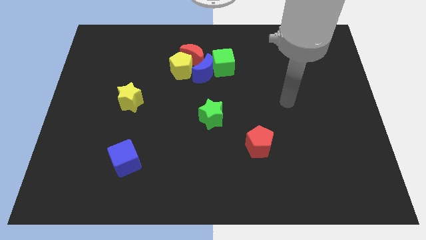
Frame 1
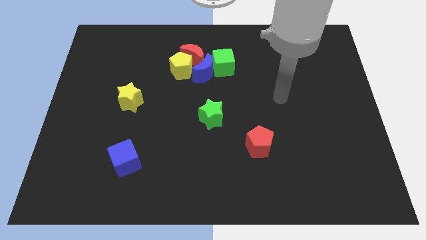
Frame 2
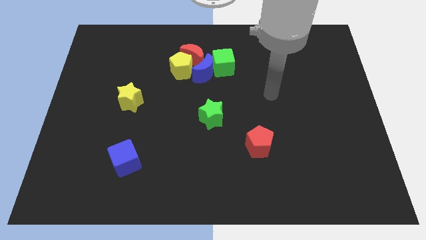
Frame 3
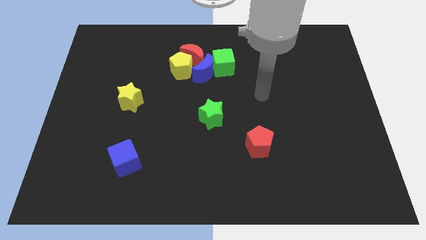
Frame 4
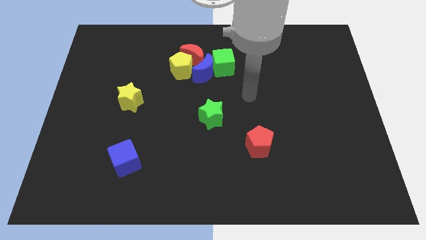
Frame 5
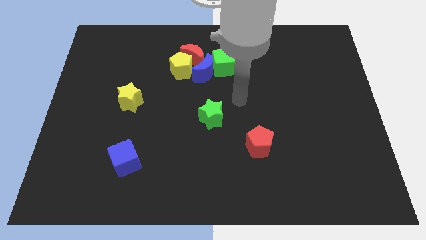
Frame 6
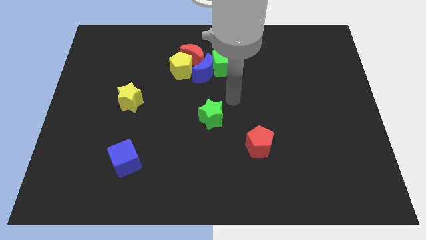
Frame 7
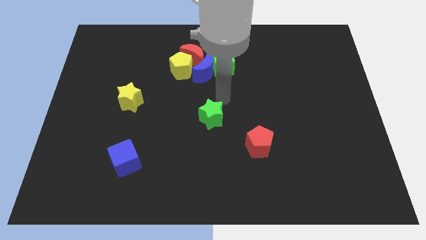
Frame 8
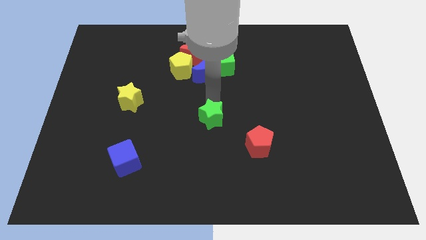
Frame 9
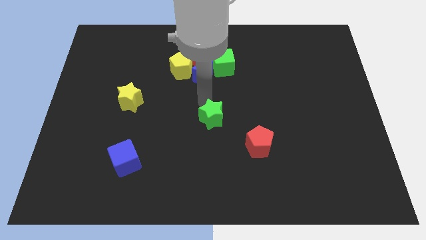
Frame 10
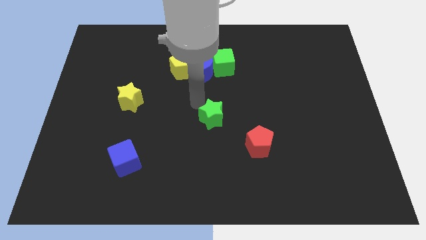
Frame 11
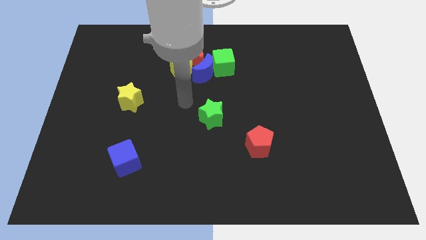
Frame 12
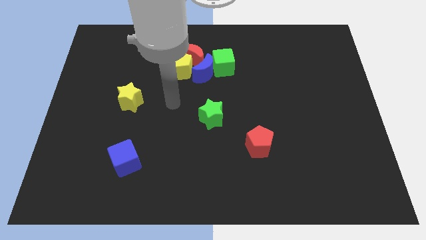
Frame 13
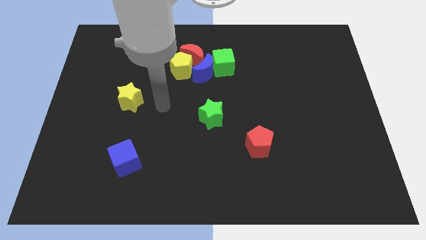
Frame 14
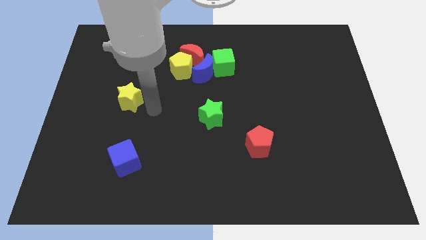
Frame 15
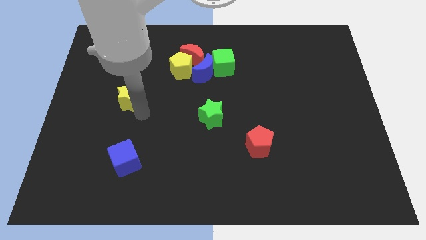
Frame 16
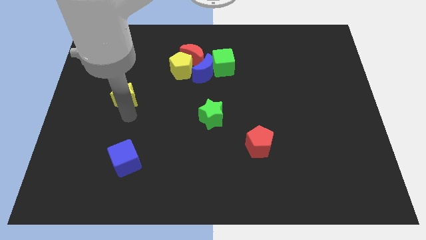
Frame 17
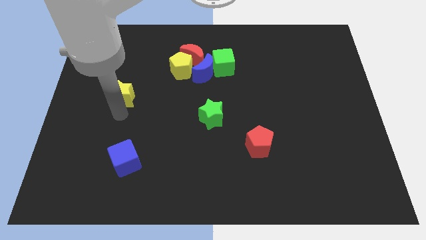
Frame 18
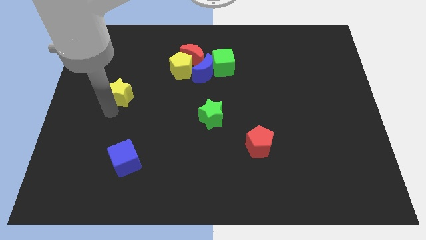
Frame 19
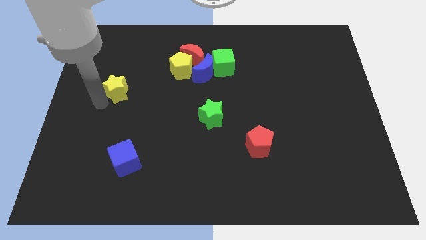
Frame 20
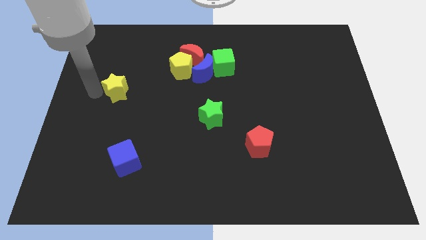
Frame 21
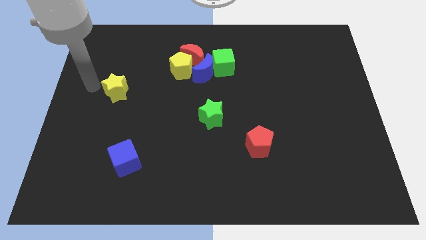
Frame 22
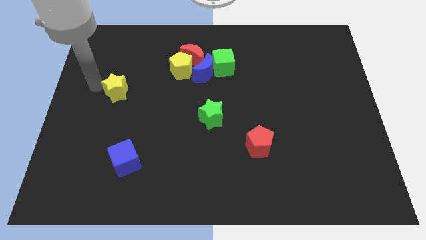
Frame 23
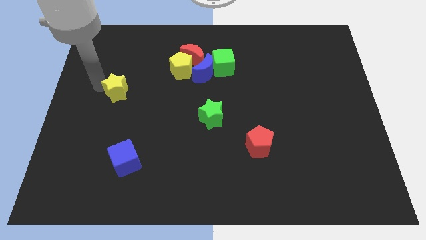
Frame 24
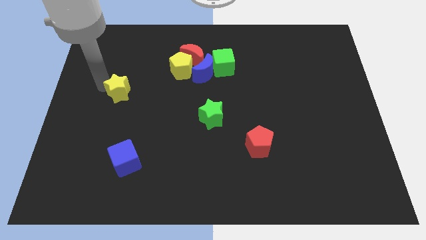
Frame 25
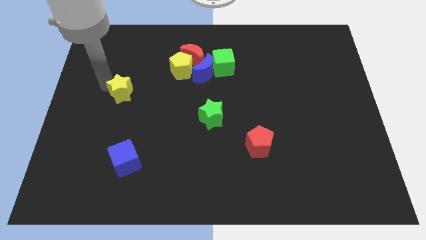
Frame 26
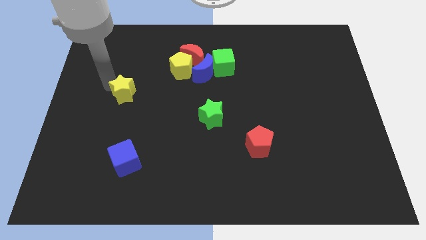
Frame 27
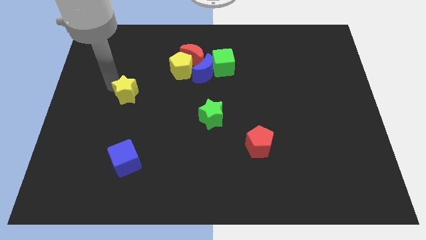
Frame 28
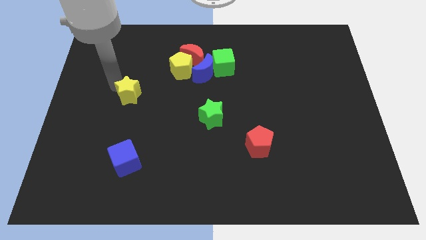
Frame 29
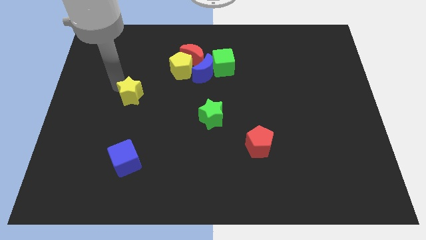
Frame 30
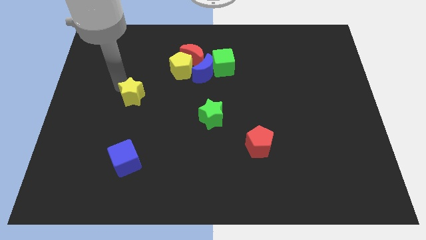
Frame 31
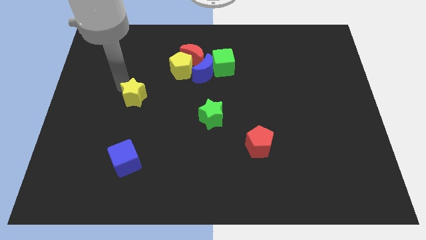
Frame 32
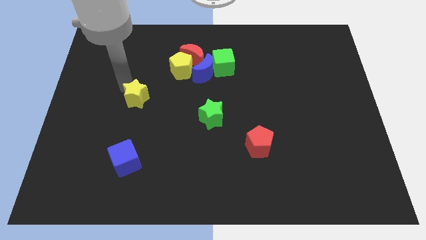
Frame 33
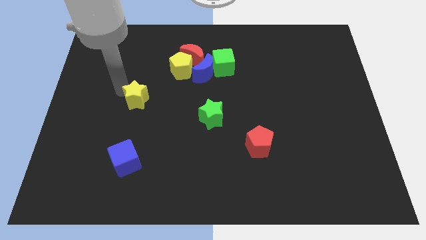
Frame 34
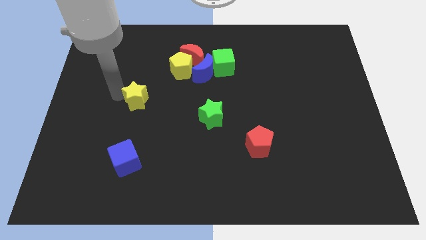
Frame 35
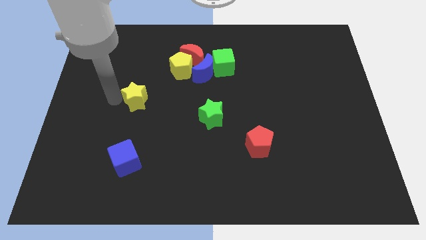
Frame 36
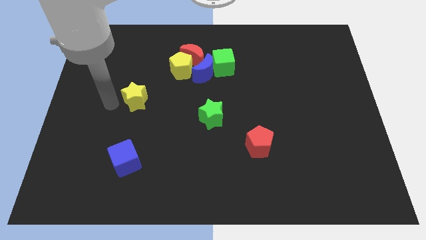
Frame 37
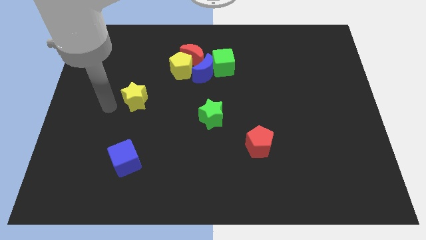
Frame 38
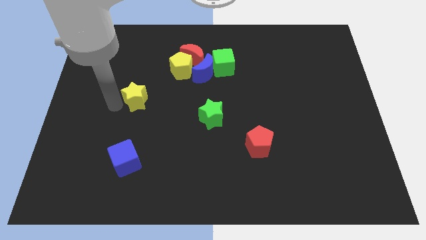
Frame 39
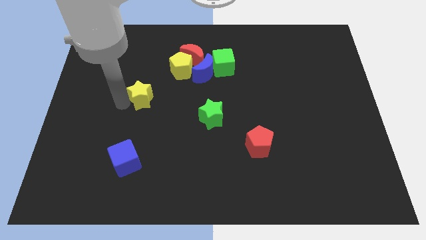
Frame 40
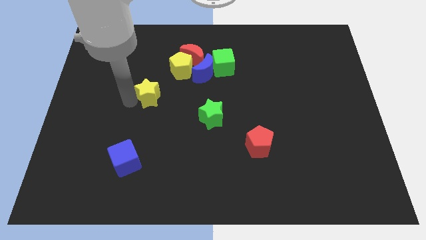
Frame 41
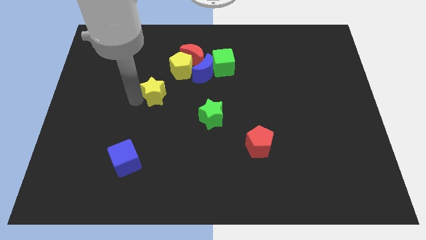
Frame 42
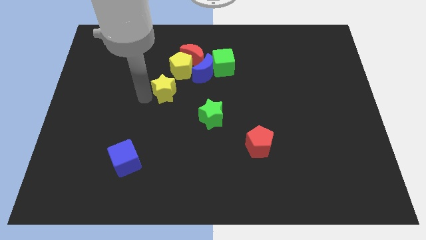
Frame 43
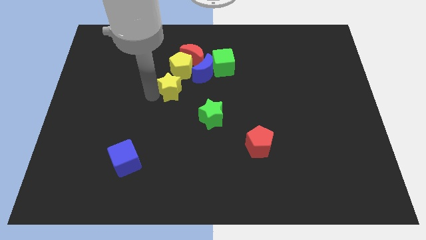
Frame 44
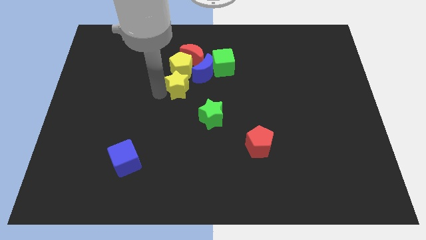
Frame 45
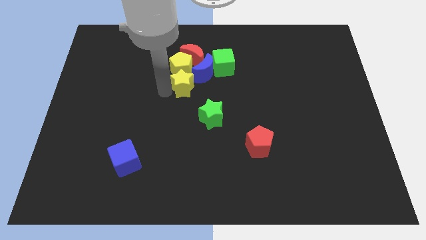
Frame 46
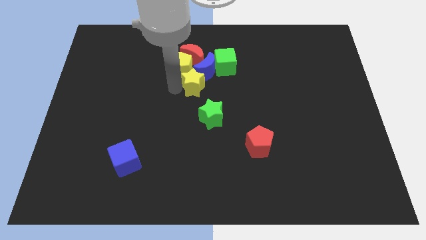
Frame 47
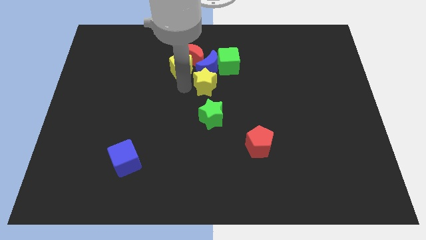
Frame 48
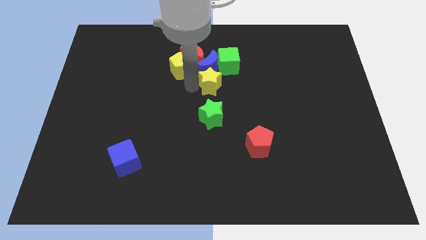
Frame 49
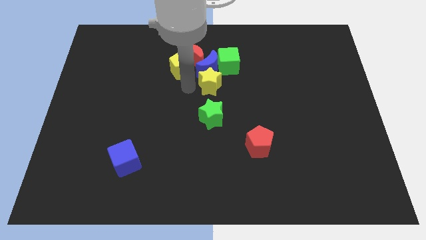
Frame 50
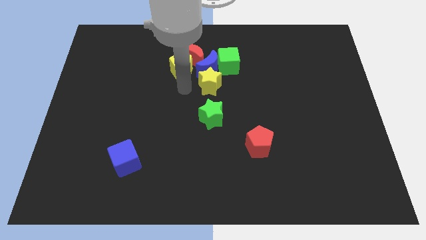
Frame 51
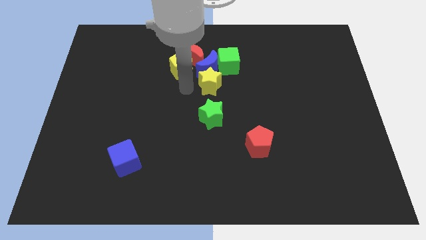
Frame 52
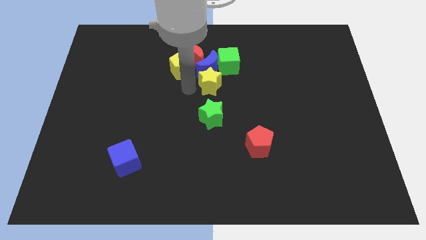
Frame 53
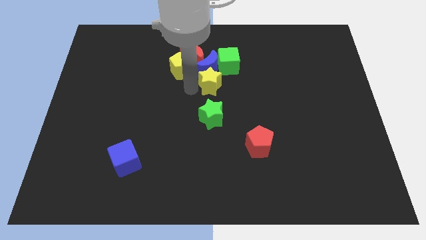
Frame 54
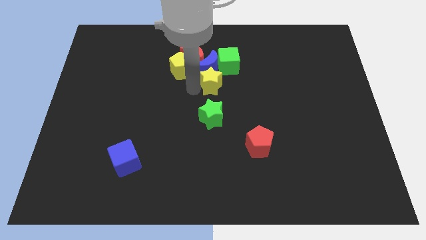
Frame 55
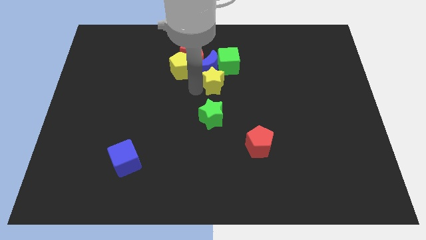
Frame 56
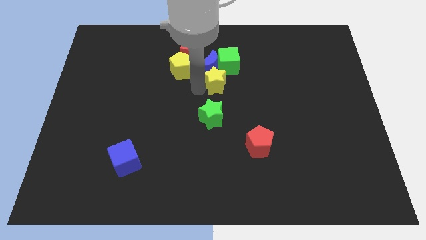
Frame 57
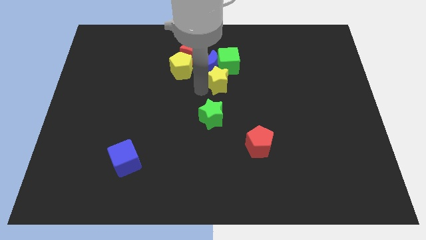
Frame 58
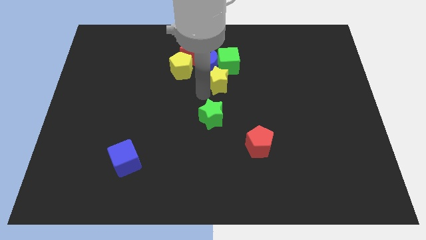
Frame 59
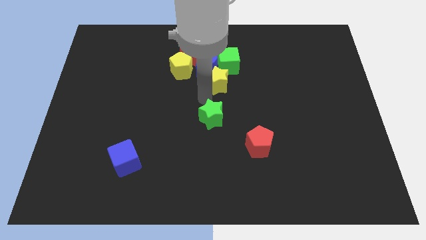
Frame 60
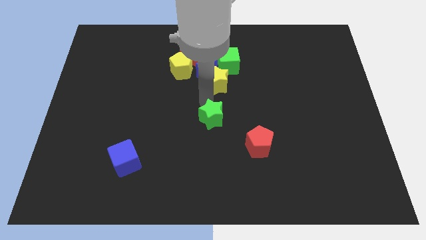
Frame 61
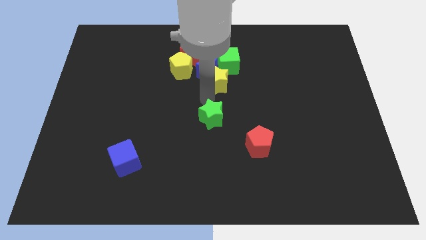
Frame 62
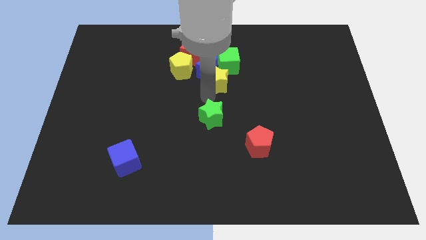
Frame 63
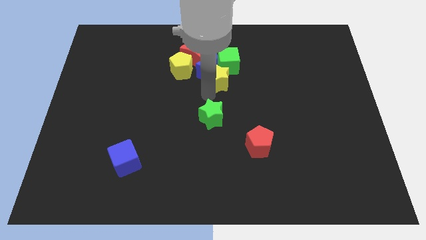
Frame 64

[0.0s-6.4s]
slide the yellow star to the green cube

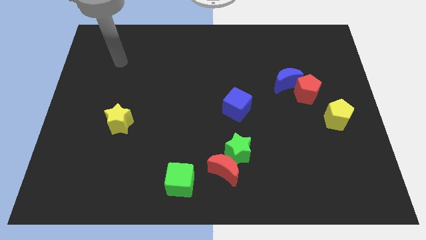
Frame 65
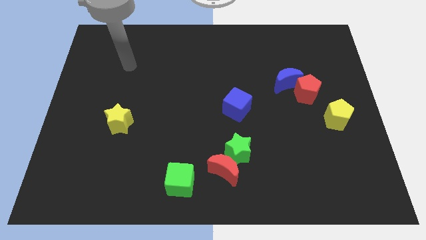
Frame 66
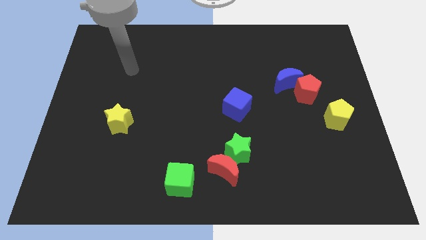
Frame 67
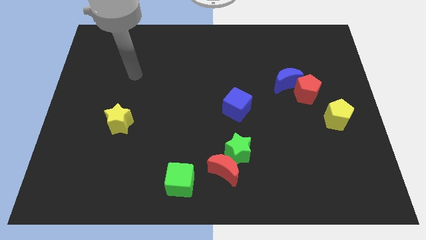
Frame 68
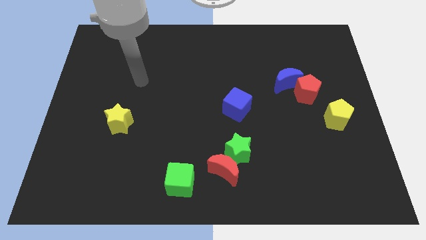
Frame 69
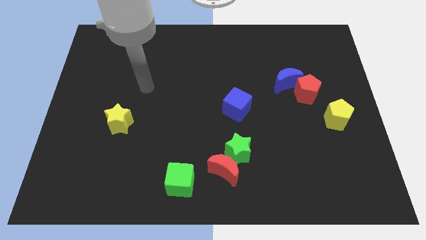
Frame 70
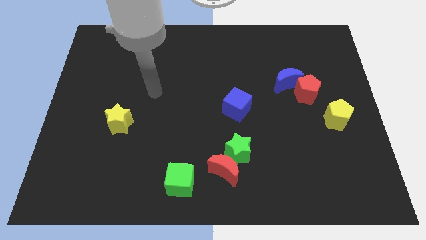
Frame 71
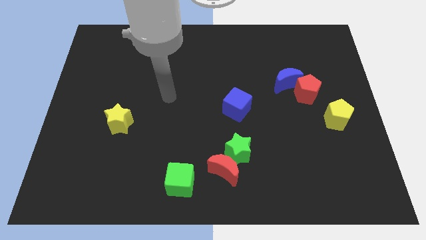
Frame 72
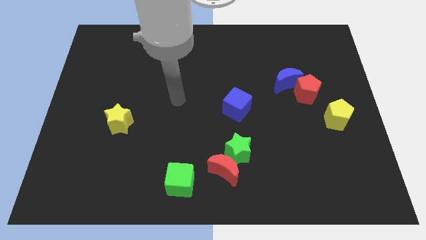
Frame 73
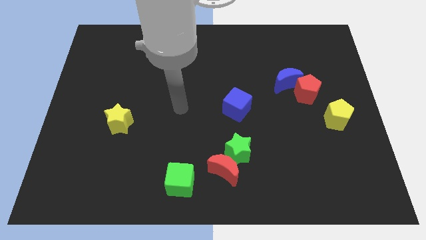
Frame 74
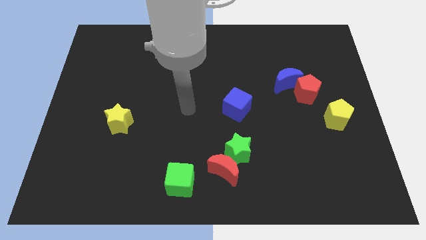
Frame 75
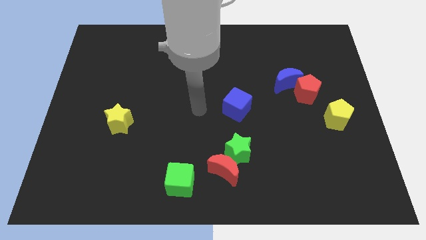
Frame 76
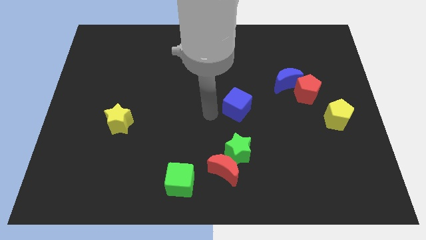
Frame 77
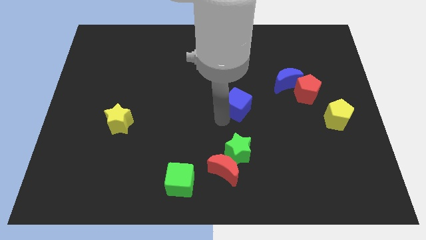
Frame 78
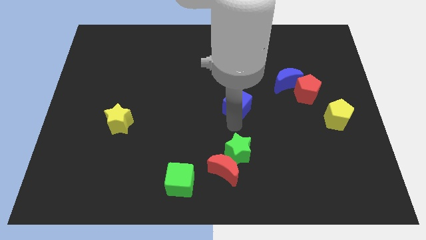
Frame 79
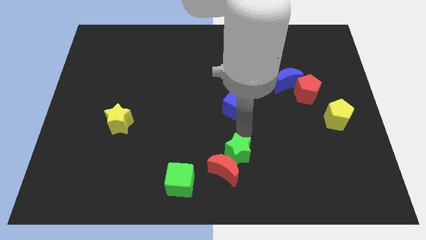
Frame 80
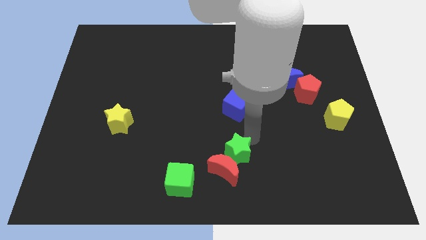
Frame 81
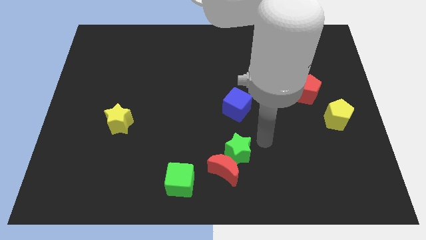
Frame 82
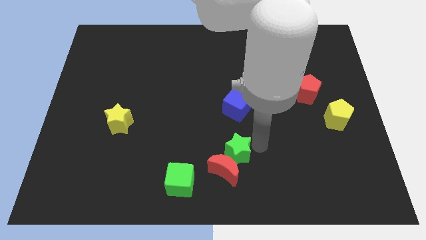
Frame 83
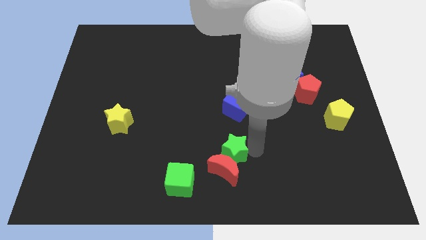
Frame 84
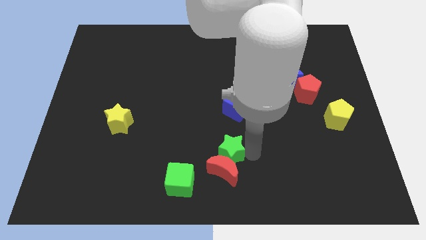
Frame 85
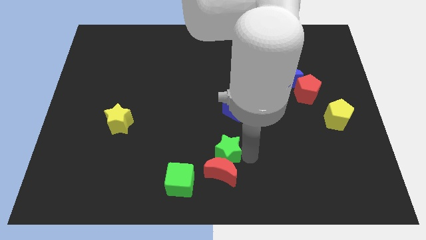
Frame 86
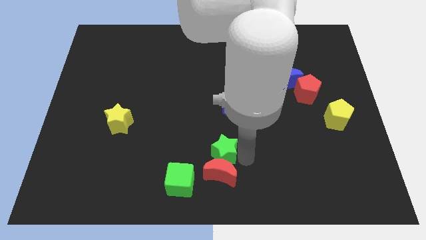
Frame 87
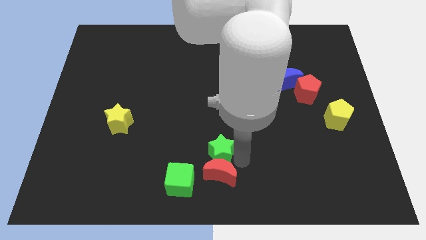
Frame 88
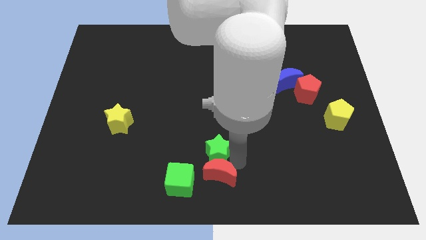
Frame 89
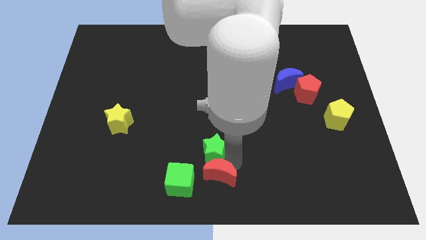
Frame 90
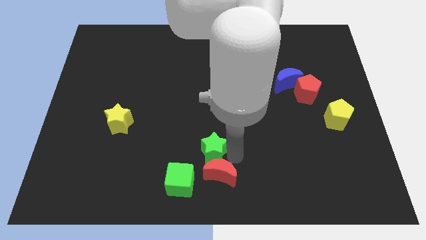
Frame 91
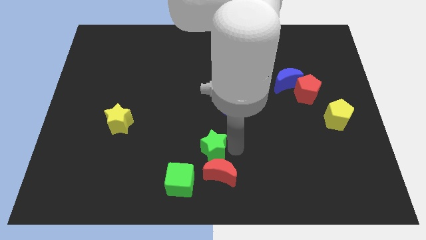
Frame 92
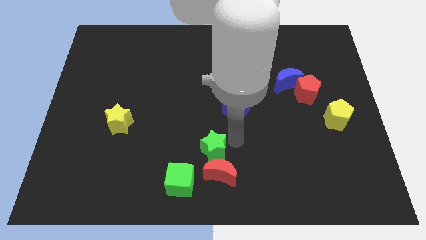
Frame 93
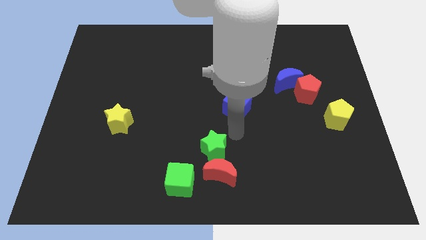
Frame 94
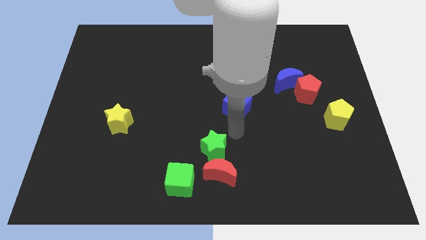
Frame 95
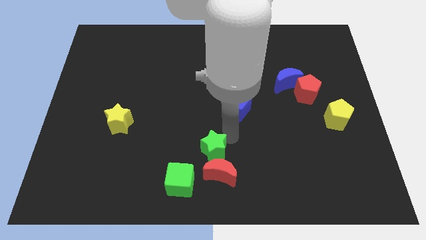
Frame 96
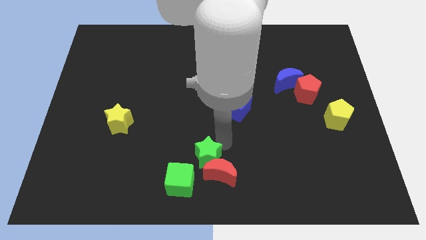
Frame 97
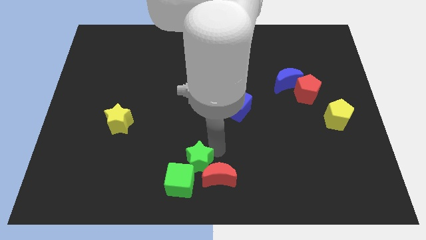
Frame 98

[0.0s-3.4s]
slide the green star towards the green cube
